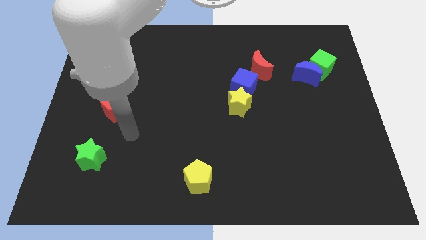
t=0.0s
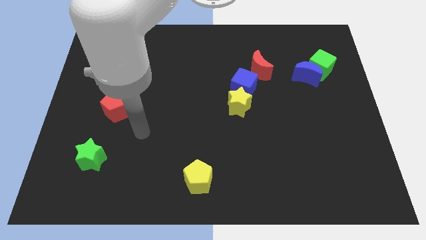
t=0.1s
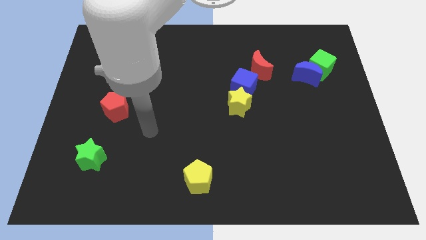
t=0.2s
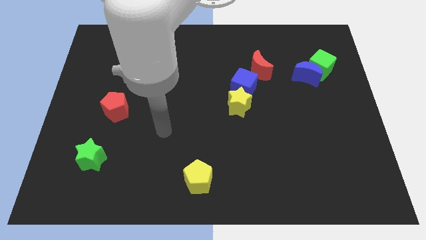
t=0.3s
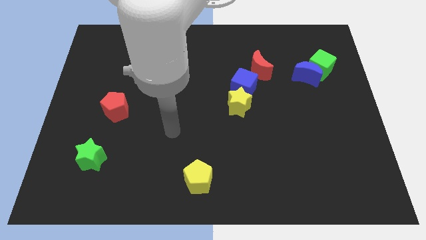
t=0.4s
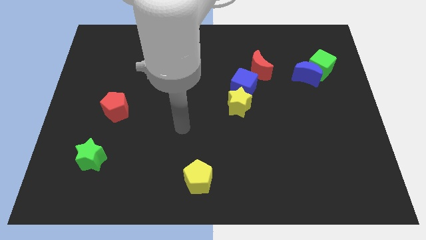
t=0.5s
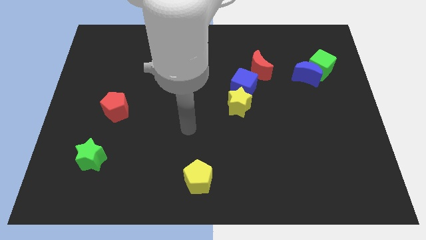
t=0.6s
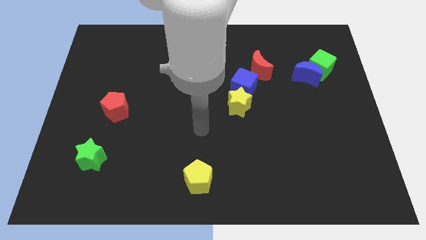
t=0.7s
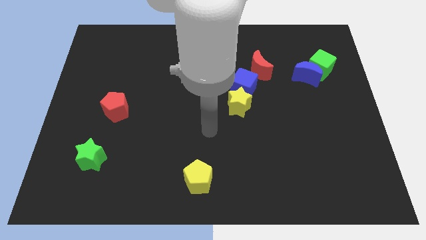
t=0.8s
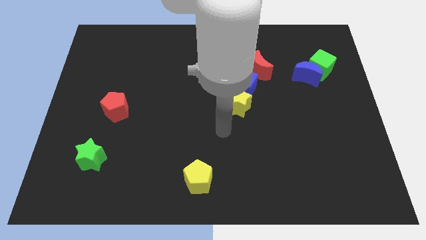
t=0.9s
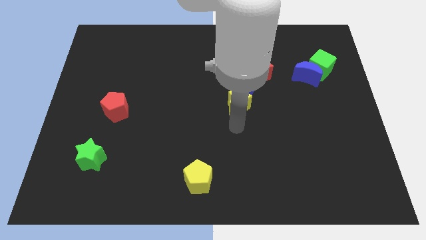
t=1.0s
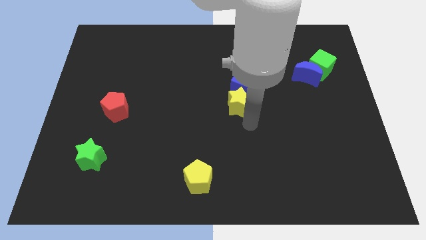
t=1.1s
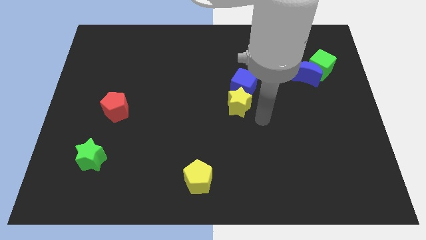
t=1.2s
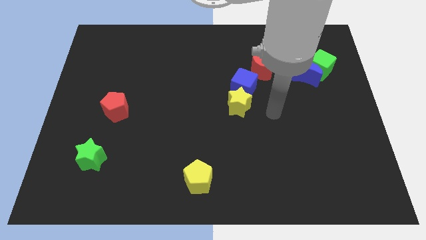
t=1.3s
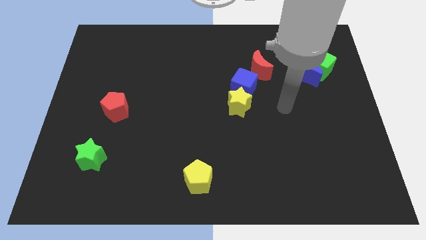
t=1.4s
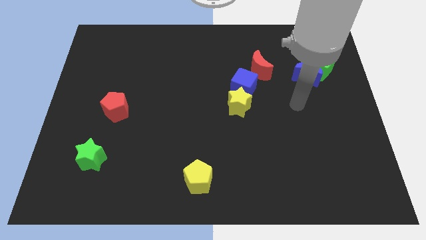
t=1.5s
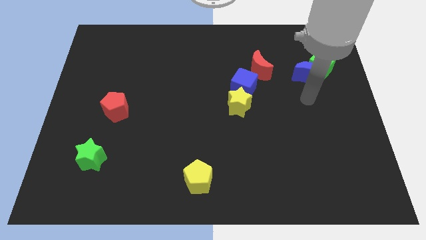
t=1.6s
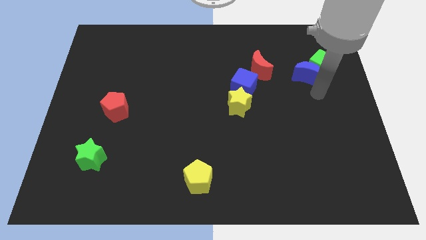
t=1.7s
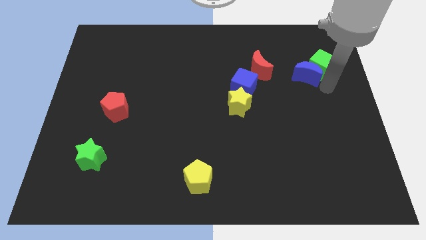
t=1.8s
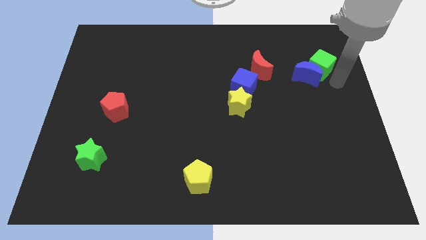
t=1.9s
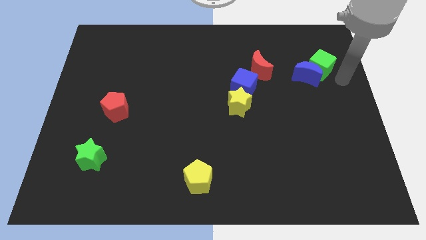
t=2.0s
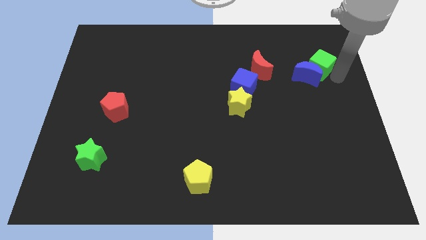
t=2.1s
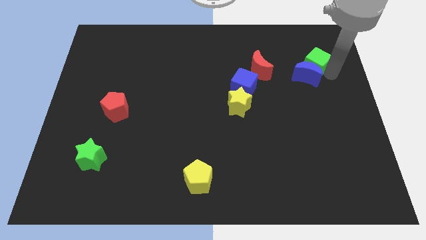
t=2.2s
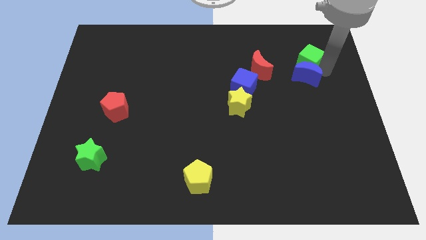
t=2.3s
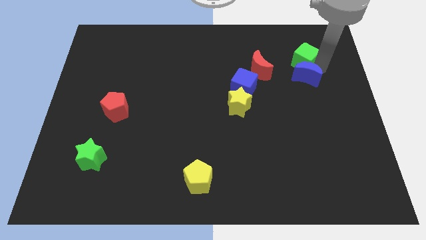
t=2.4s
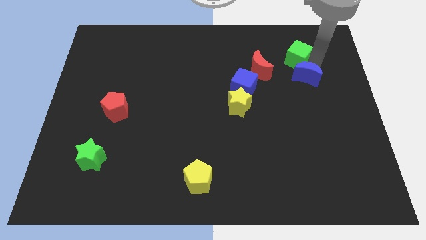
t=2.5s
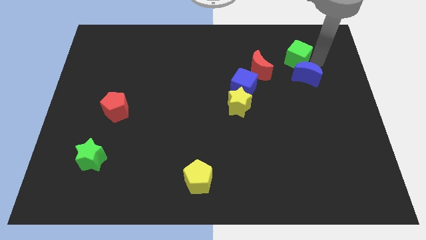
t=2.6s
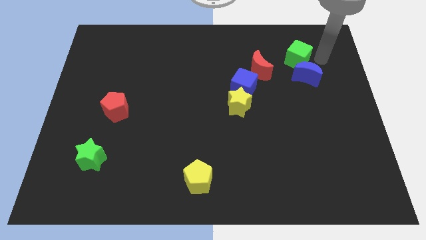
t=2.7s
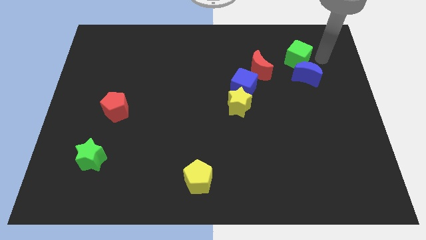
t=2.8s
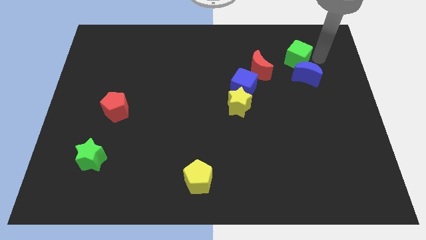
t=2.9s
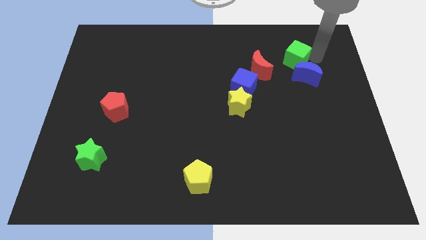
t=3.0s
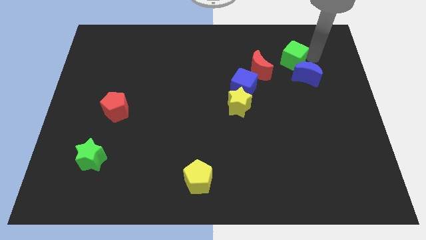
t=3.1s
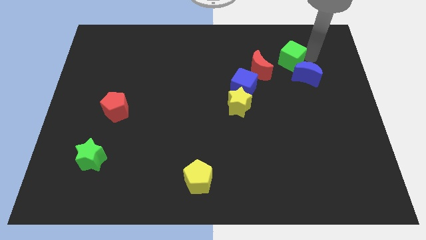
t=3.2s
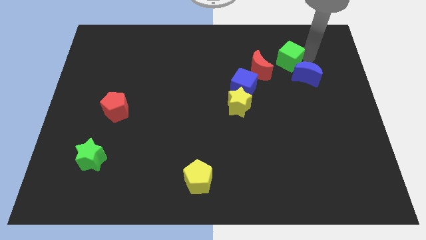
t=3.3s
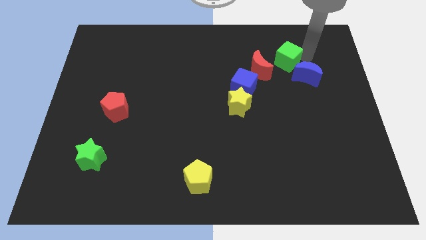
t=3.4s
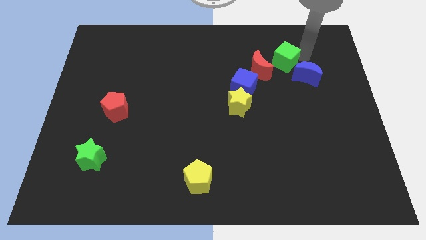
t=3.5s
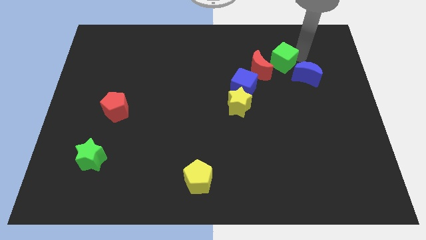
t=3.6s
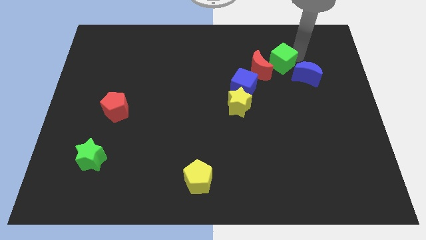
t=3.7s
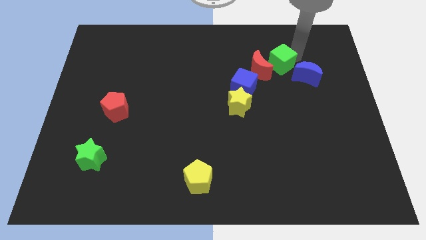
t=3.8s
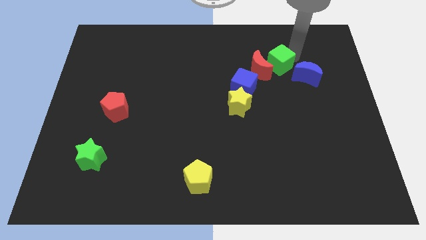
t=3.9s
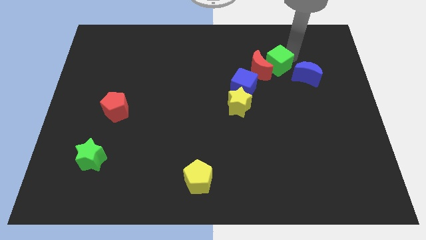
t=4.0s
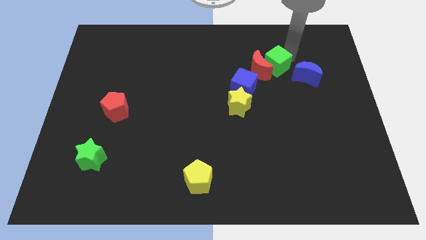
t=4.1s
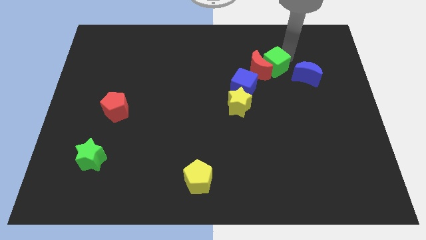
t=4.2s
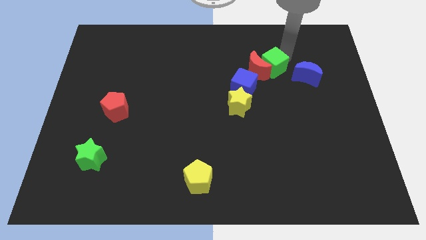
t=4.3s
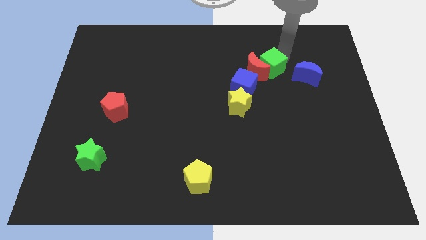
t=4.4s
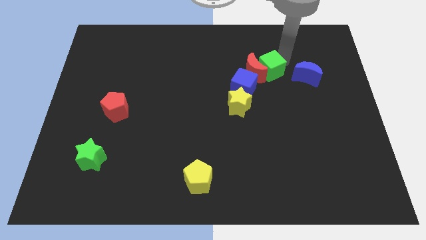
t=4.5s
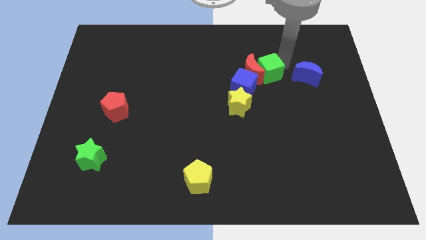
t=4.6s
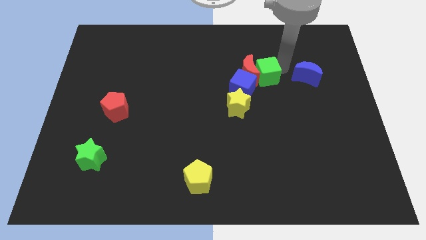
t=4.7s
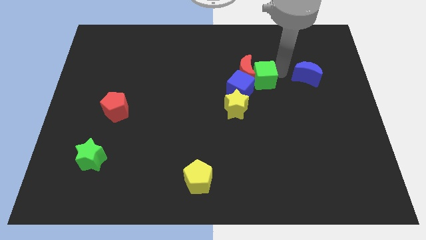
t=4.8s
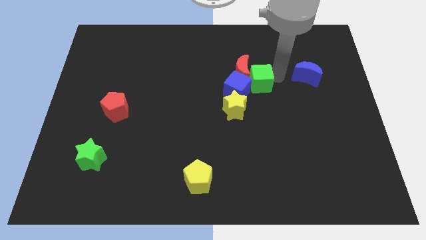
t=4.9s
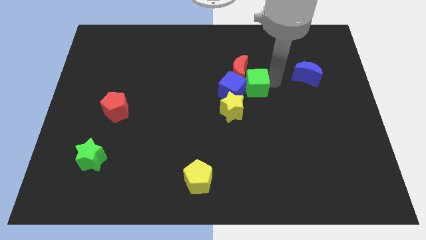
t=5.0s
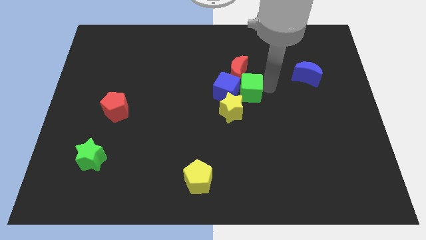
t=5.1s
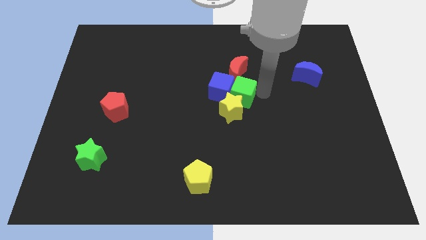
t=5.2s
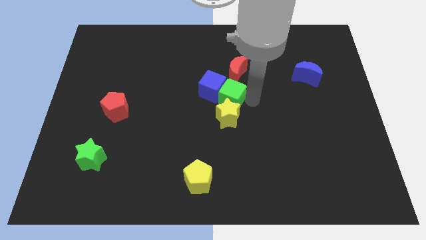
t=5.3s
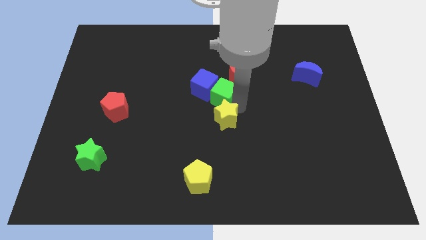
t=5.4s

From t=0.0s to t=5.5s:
slide the green cube left

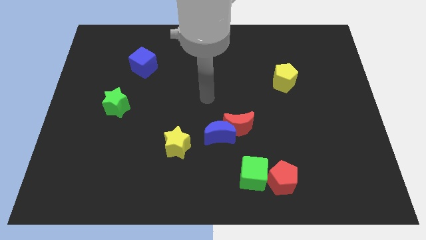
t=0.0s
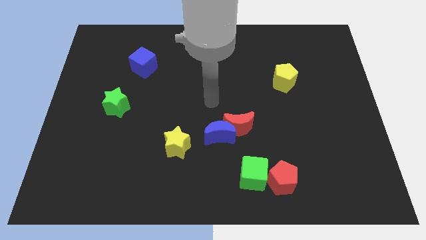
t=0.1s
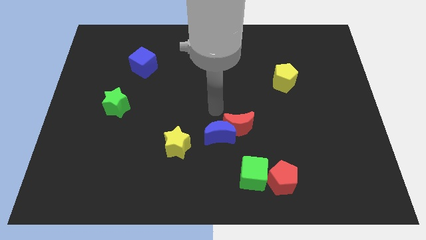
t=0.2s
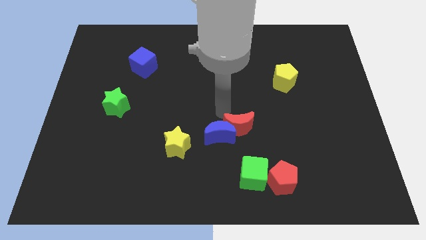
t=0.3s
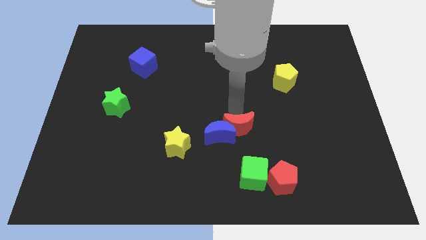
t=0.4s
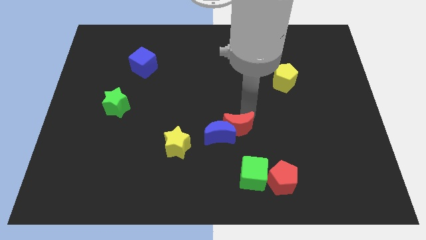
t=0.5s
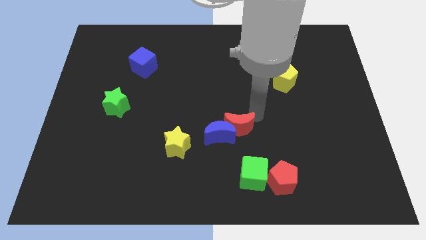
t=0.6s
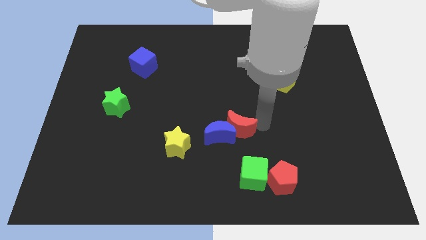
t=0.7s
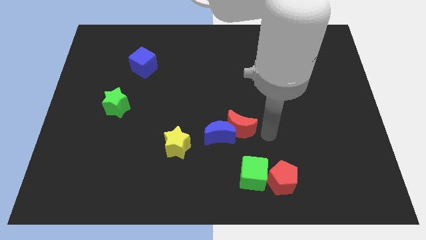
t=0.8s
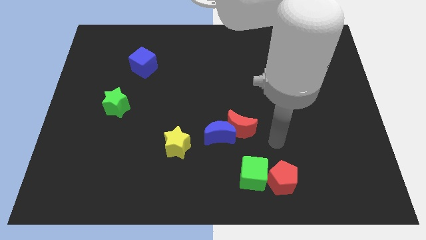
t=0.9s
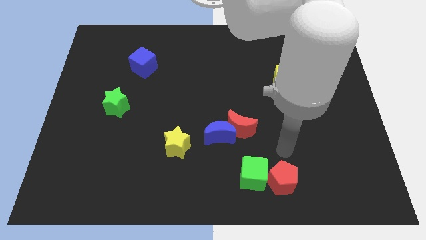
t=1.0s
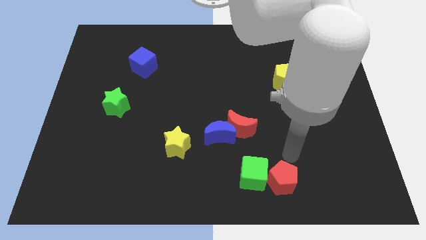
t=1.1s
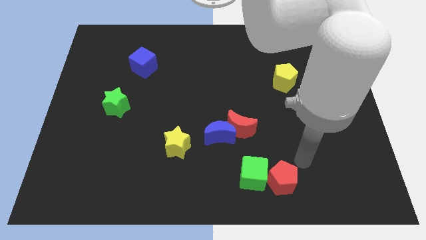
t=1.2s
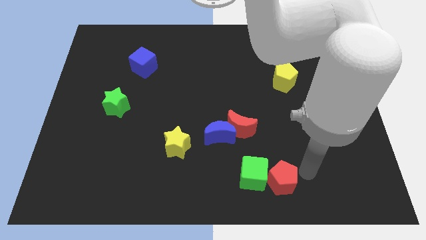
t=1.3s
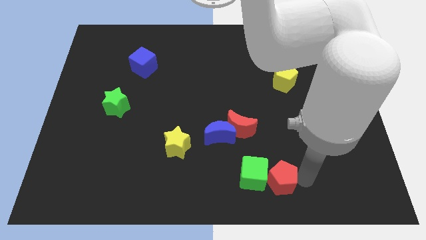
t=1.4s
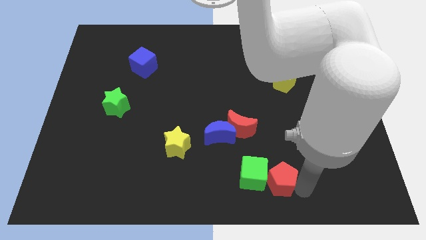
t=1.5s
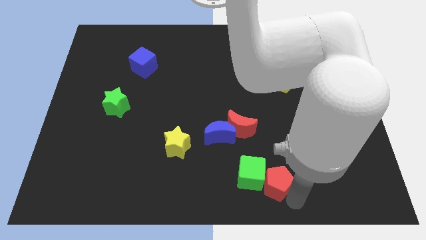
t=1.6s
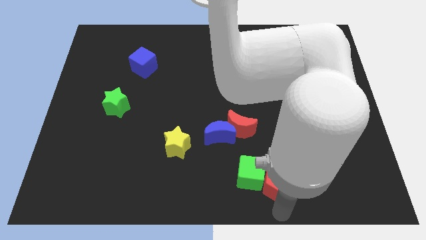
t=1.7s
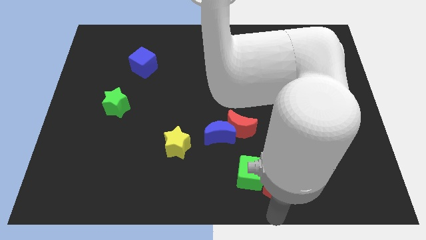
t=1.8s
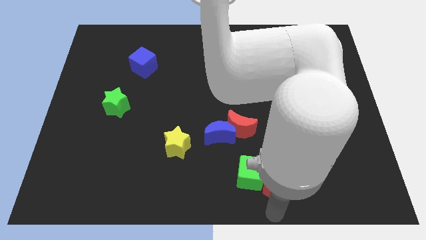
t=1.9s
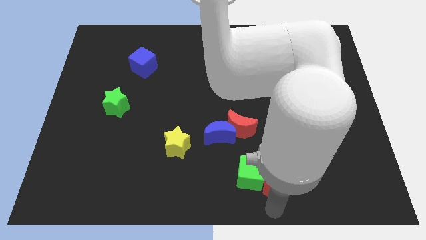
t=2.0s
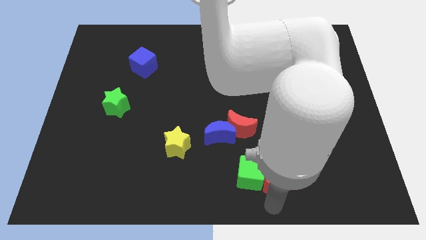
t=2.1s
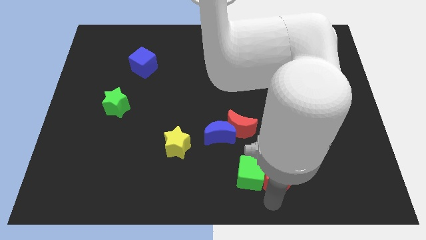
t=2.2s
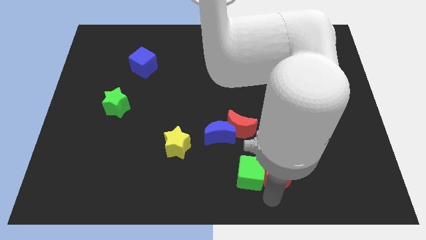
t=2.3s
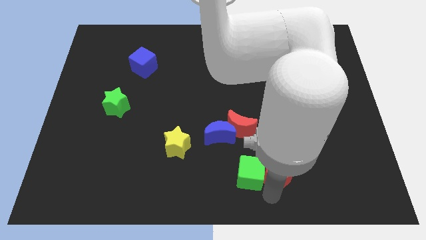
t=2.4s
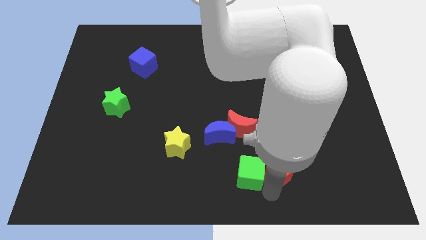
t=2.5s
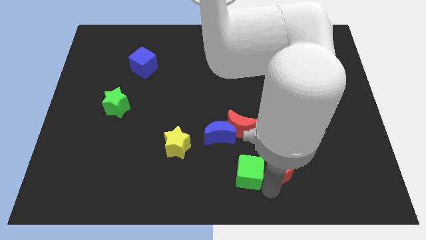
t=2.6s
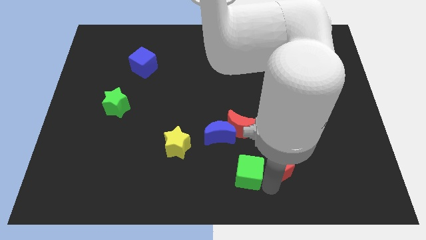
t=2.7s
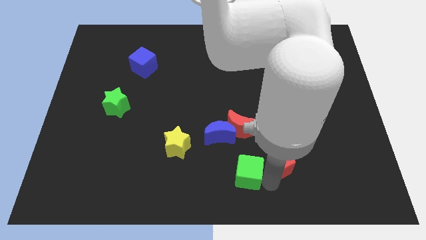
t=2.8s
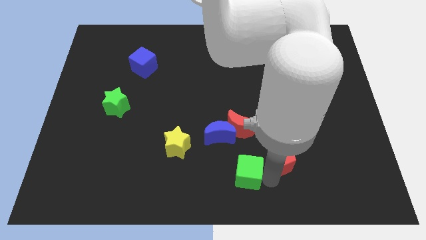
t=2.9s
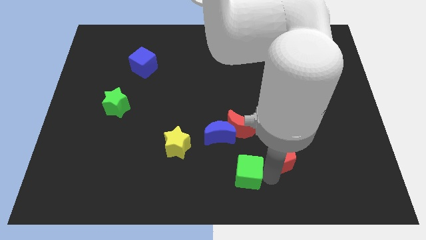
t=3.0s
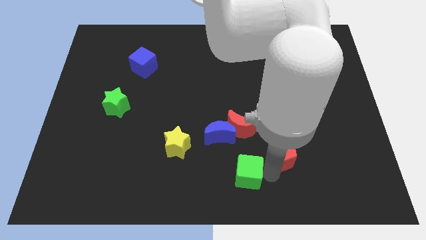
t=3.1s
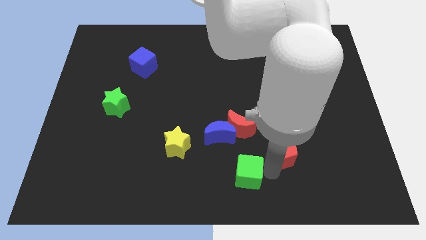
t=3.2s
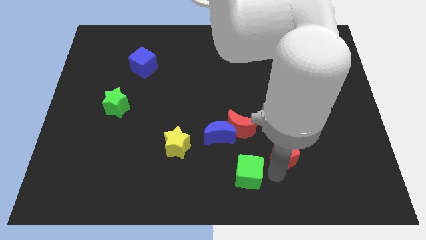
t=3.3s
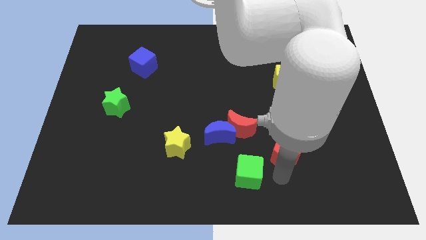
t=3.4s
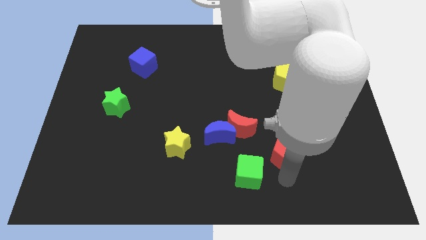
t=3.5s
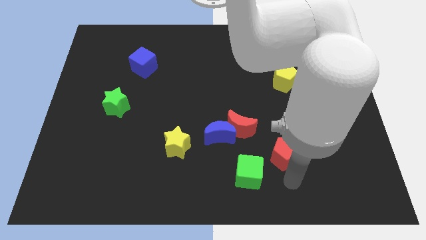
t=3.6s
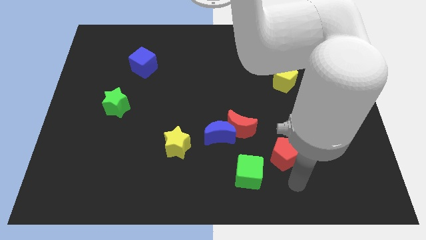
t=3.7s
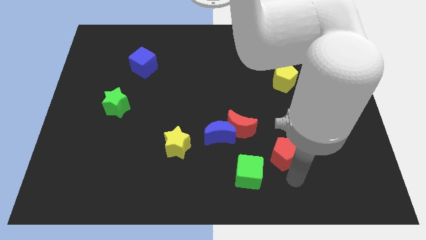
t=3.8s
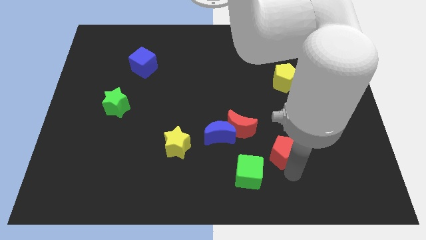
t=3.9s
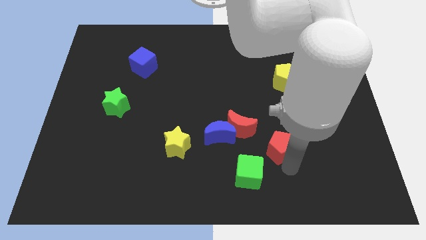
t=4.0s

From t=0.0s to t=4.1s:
push the red pentagon a bit upwards
